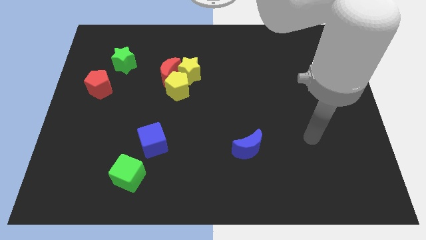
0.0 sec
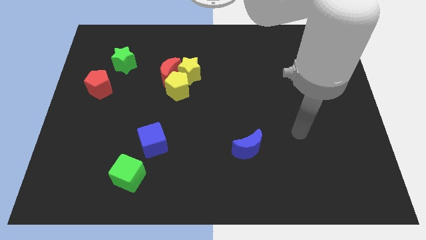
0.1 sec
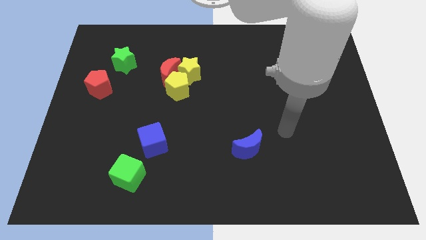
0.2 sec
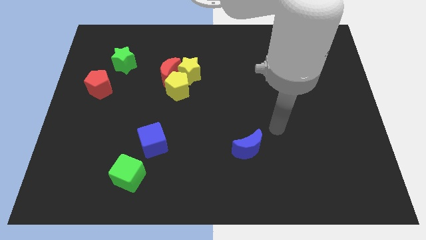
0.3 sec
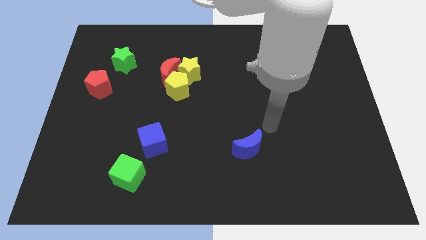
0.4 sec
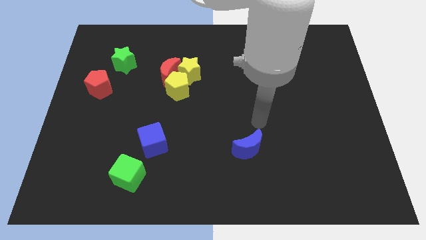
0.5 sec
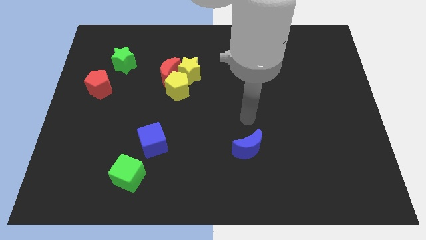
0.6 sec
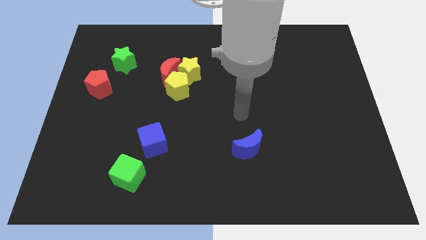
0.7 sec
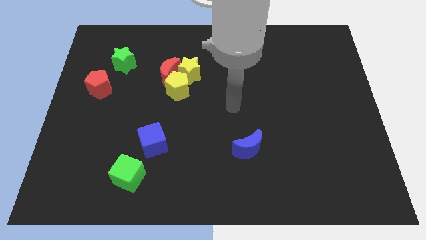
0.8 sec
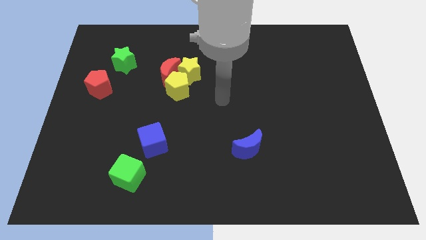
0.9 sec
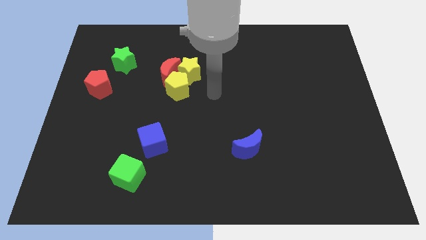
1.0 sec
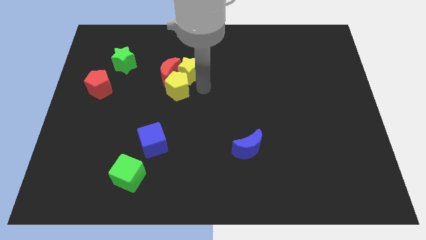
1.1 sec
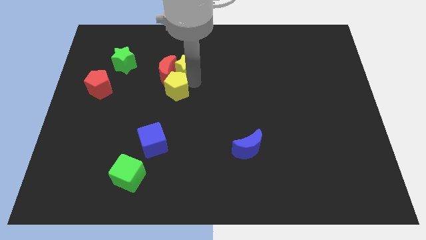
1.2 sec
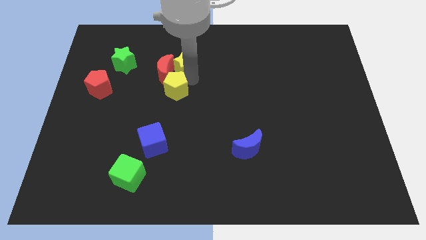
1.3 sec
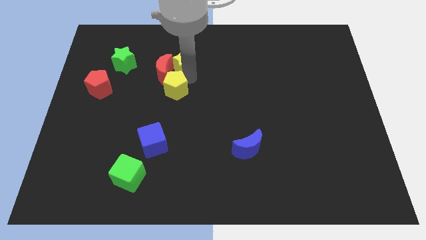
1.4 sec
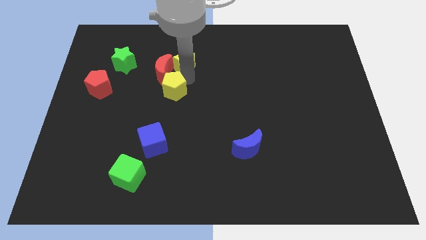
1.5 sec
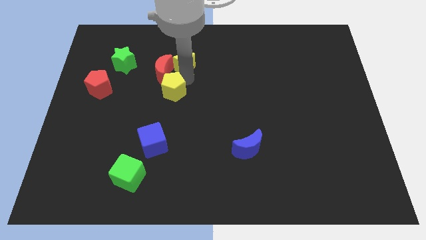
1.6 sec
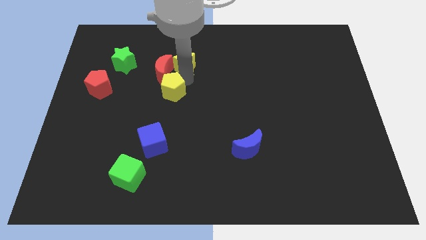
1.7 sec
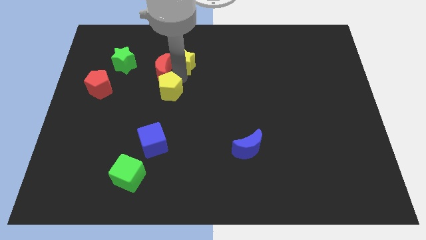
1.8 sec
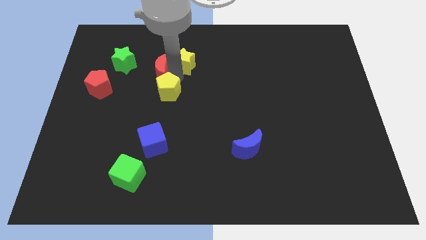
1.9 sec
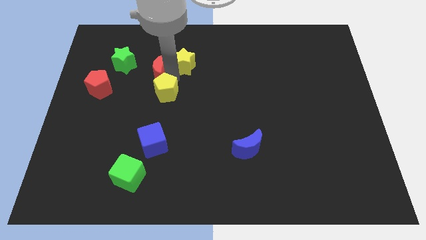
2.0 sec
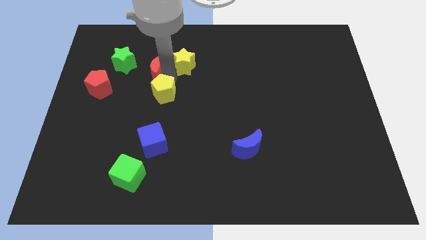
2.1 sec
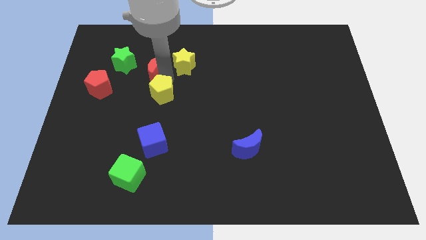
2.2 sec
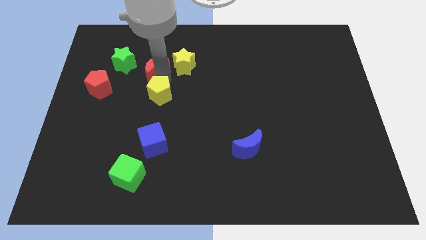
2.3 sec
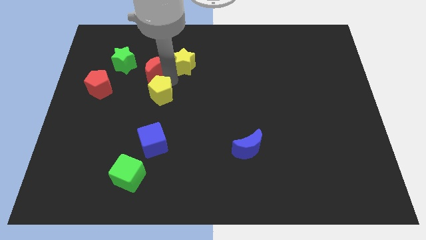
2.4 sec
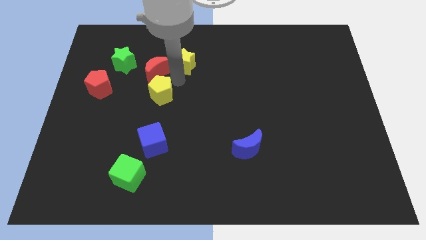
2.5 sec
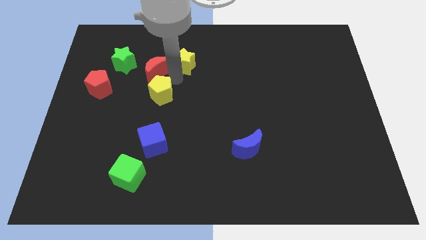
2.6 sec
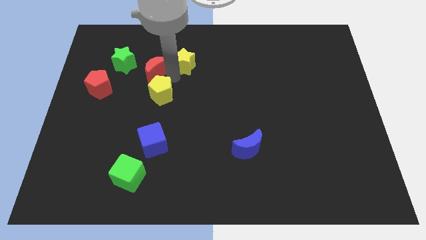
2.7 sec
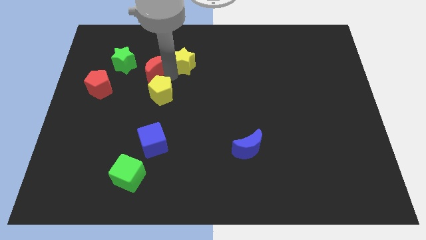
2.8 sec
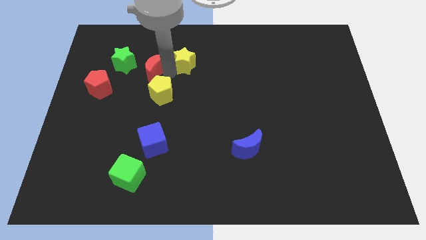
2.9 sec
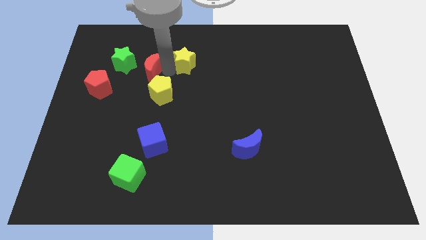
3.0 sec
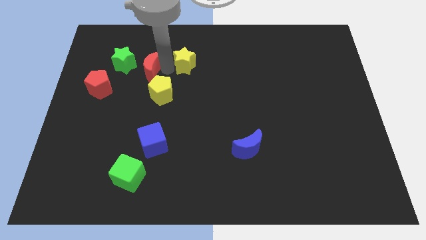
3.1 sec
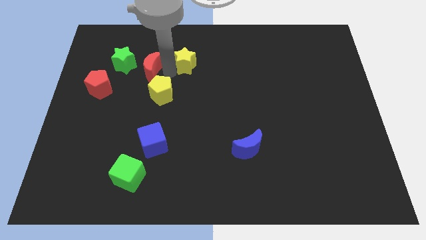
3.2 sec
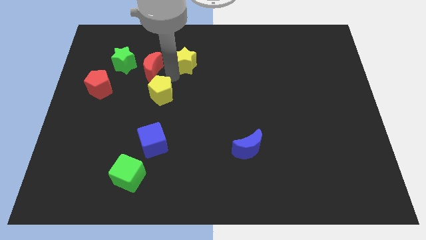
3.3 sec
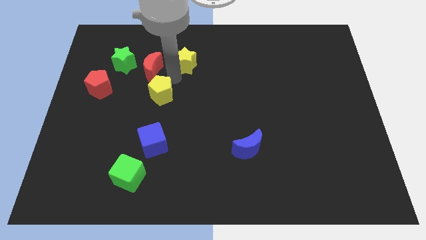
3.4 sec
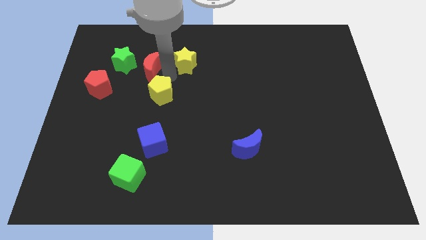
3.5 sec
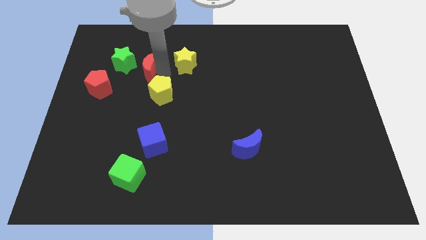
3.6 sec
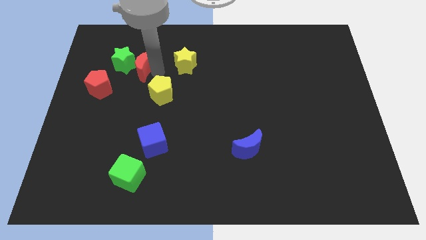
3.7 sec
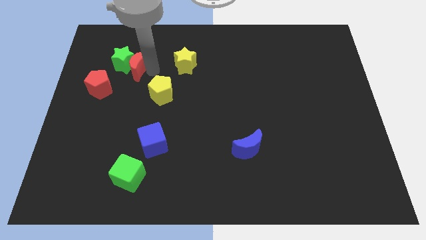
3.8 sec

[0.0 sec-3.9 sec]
pull the red moon apart from the yellow pentagon and yellow star

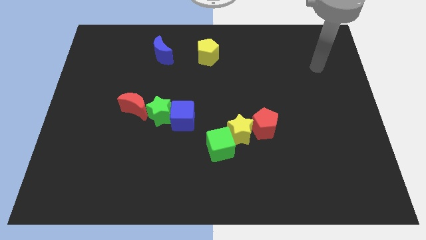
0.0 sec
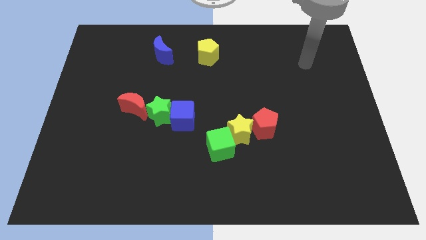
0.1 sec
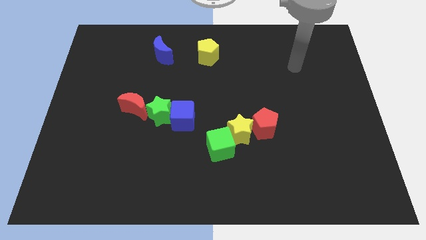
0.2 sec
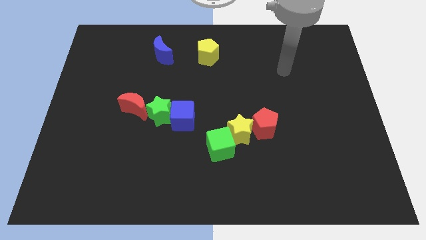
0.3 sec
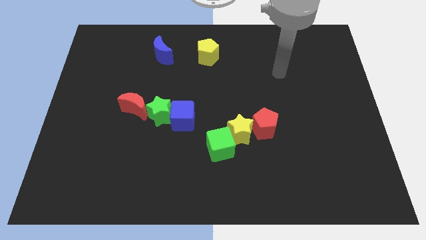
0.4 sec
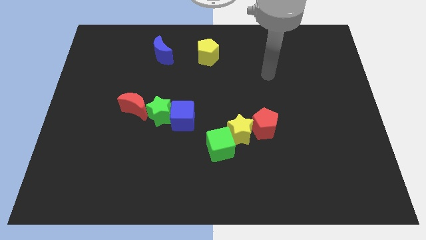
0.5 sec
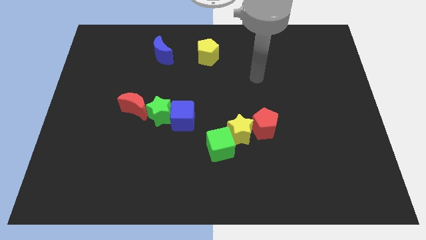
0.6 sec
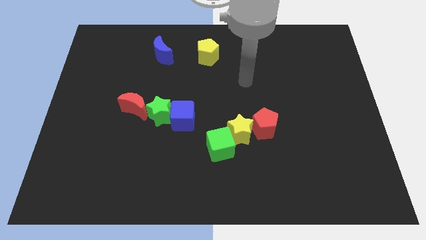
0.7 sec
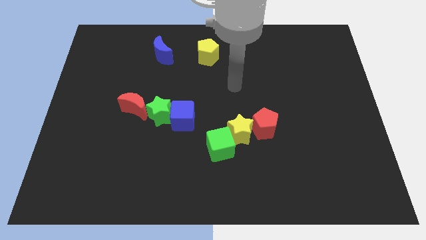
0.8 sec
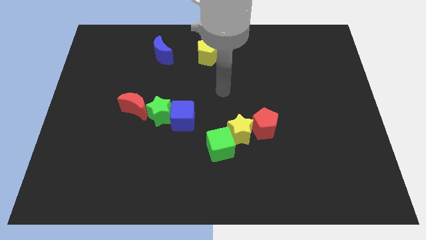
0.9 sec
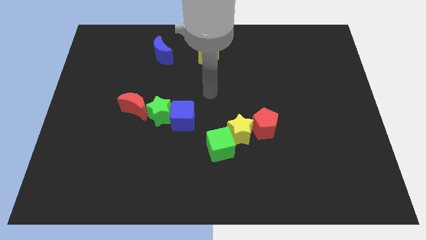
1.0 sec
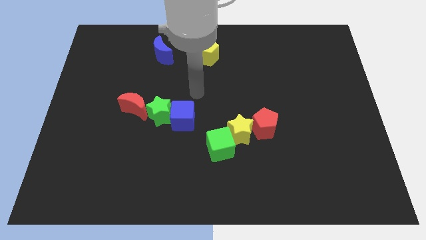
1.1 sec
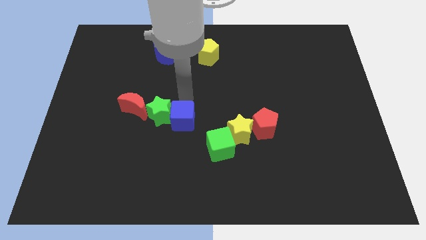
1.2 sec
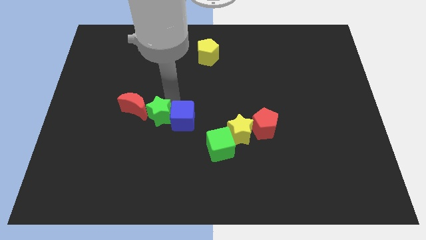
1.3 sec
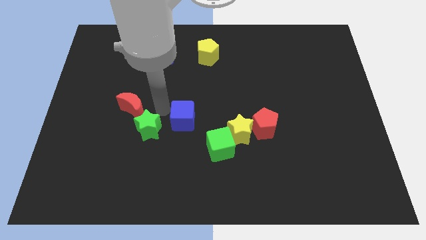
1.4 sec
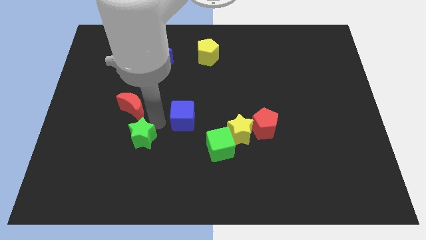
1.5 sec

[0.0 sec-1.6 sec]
pull the blue cube apart from the green star

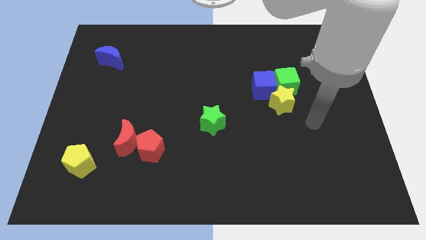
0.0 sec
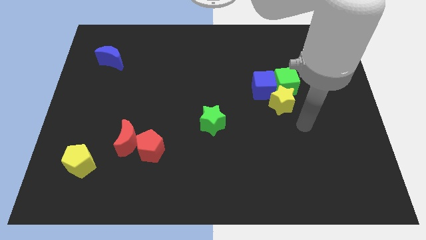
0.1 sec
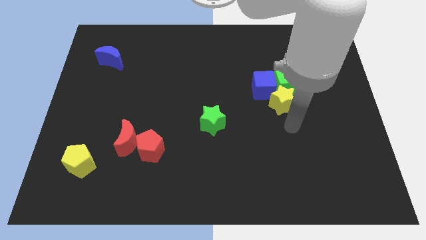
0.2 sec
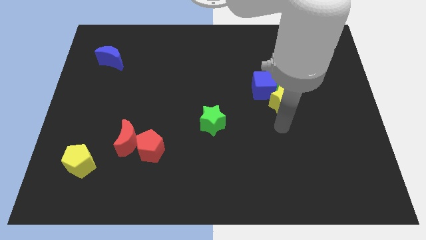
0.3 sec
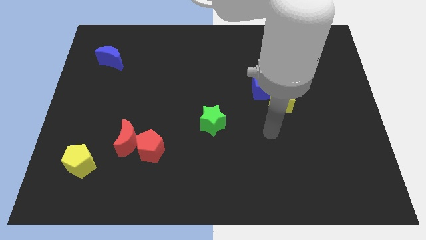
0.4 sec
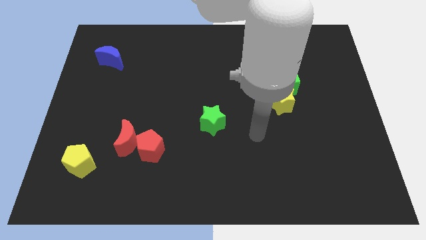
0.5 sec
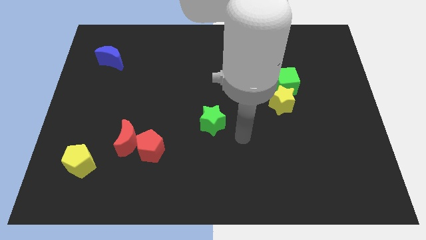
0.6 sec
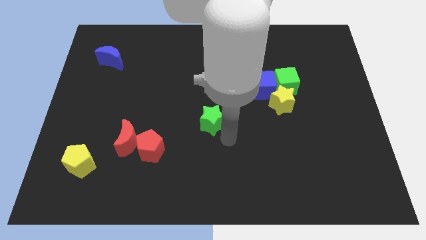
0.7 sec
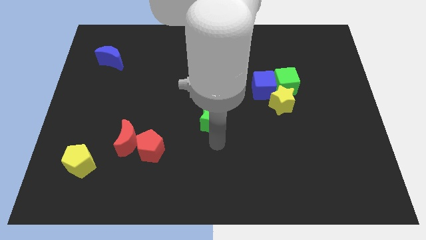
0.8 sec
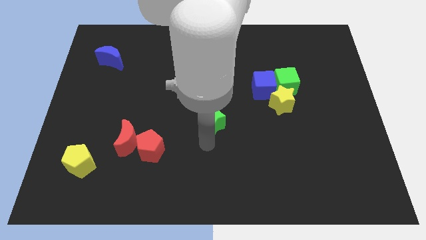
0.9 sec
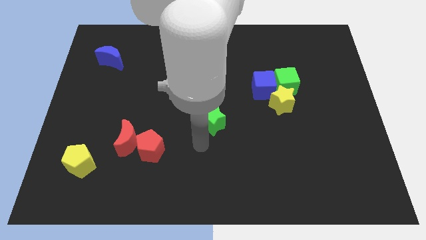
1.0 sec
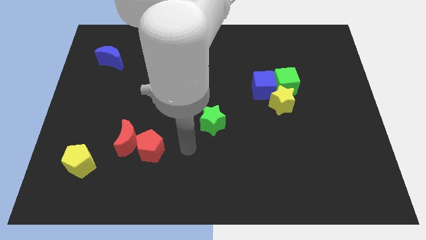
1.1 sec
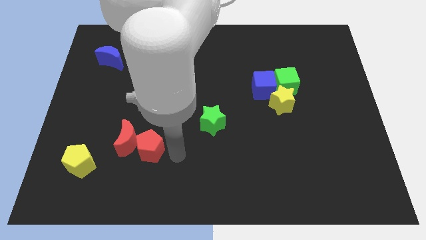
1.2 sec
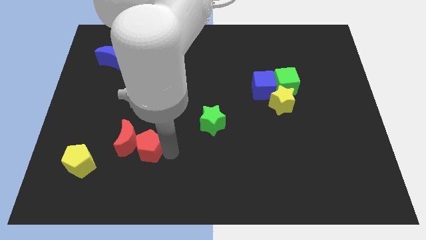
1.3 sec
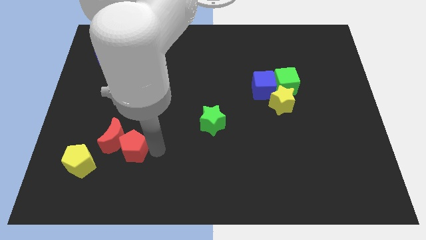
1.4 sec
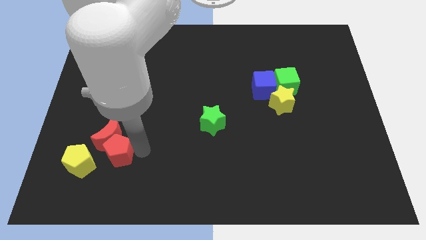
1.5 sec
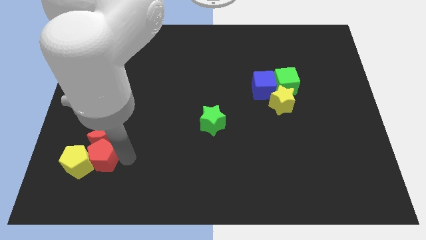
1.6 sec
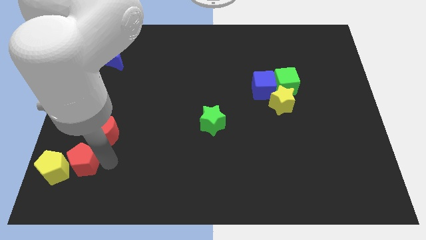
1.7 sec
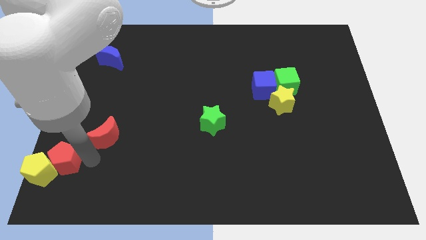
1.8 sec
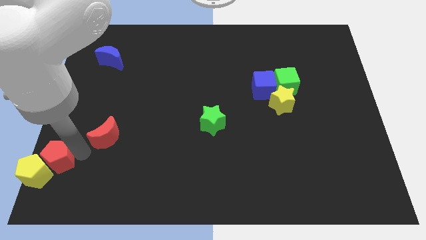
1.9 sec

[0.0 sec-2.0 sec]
move the red moon away from the red pentagon

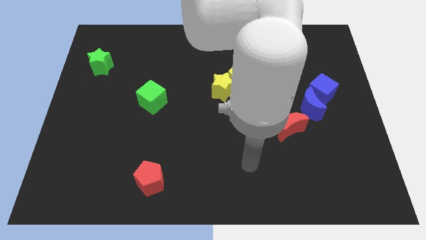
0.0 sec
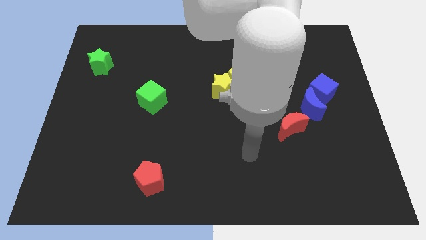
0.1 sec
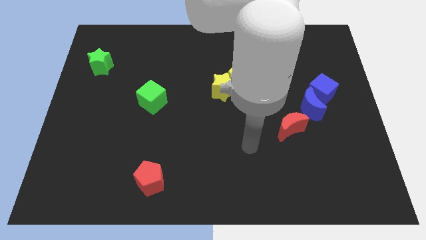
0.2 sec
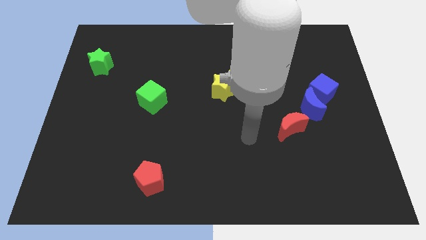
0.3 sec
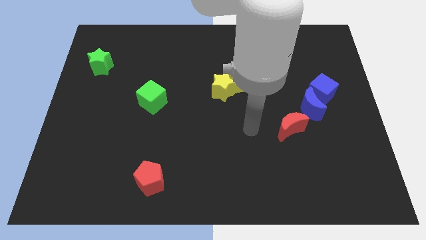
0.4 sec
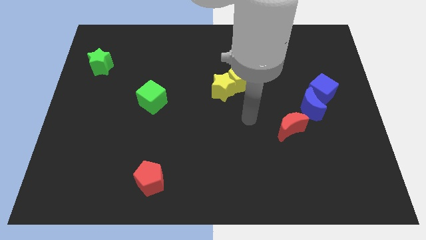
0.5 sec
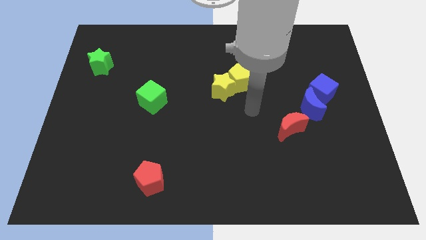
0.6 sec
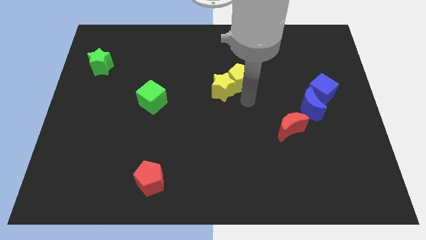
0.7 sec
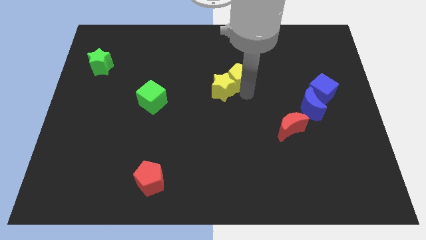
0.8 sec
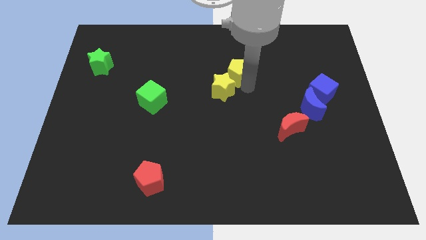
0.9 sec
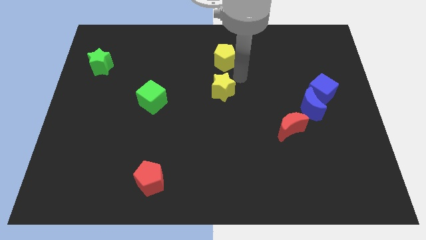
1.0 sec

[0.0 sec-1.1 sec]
pull the yellow star apart from the yellow pentagon

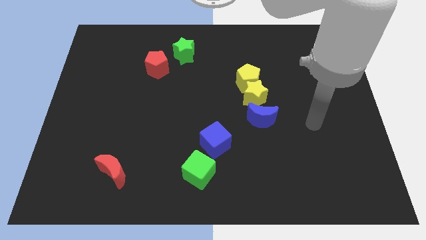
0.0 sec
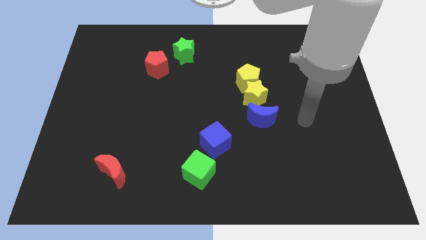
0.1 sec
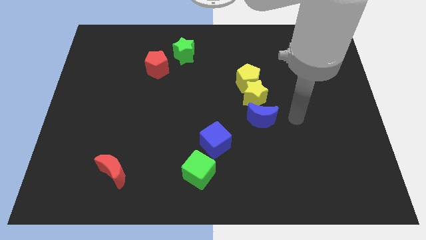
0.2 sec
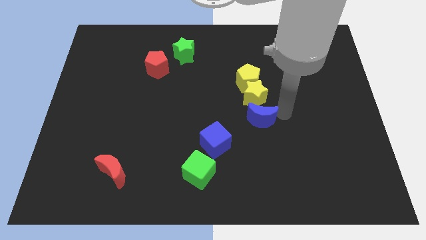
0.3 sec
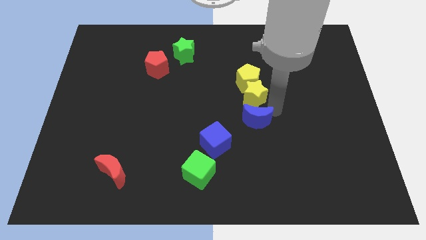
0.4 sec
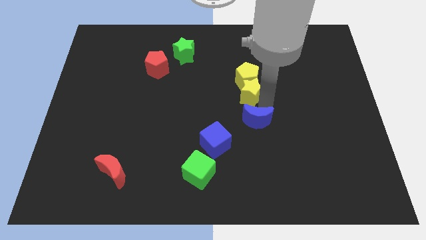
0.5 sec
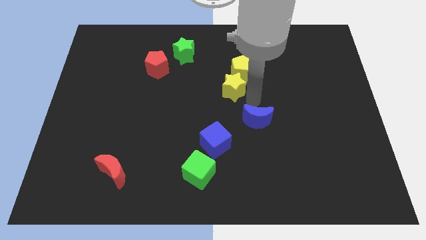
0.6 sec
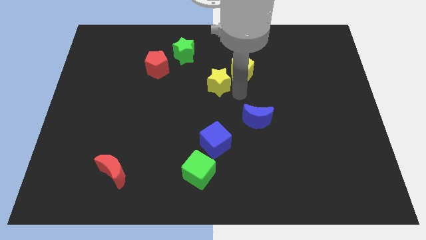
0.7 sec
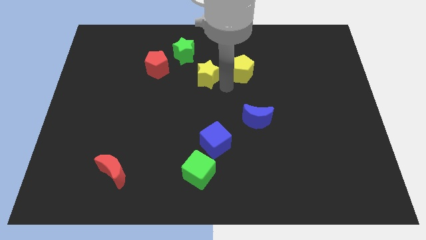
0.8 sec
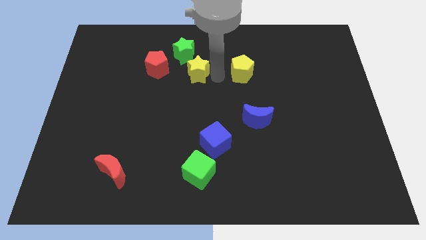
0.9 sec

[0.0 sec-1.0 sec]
move the yellow pentagon away from the yellow star
